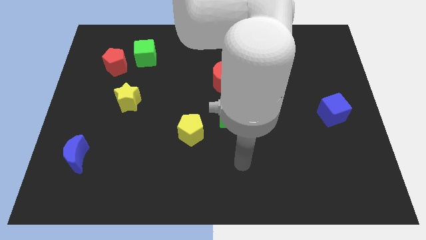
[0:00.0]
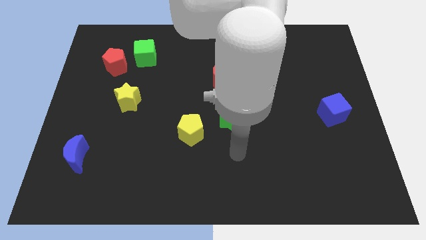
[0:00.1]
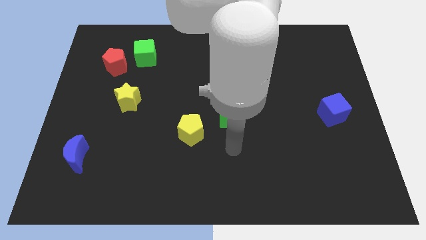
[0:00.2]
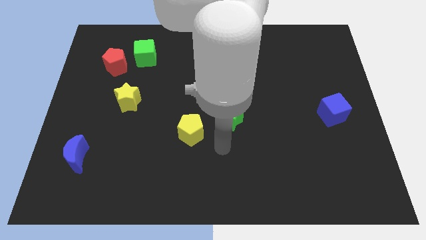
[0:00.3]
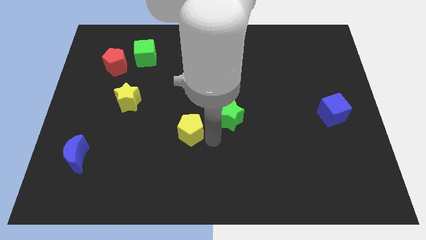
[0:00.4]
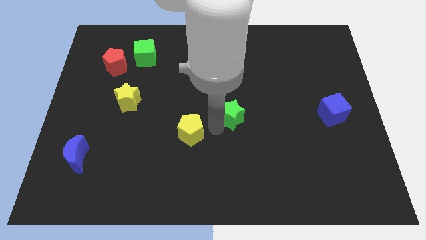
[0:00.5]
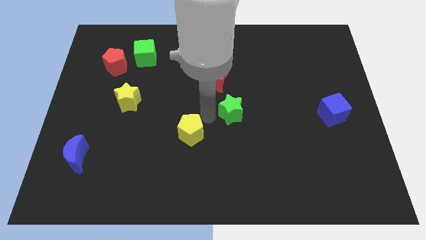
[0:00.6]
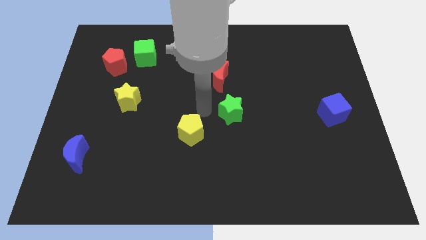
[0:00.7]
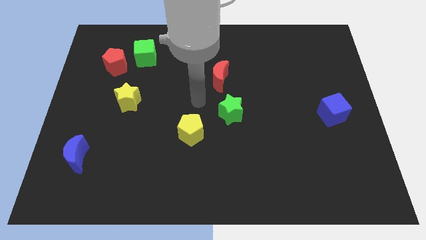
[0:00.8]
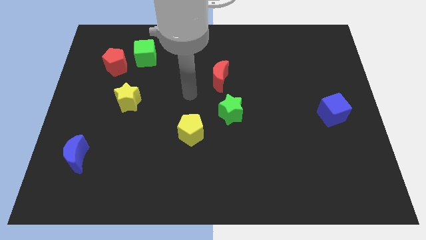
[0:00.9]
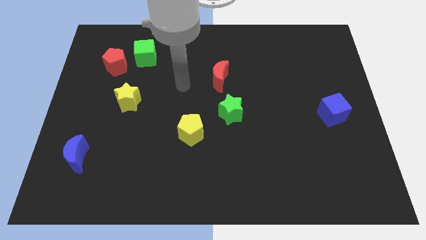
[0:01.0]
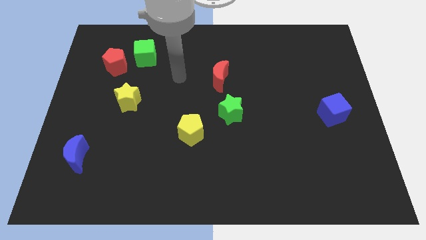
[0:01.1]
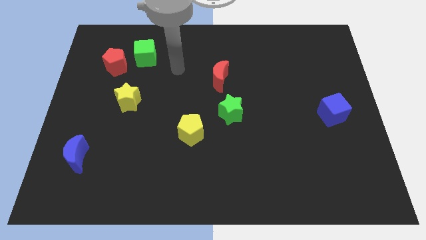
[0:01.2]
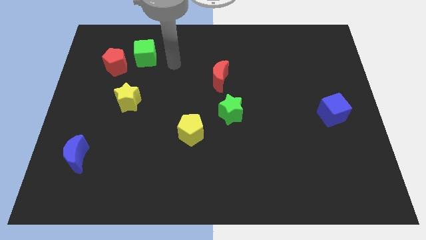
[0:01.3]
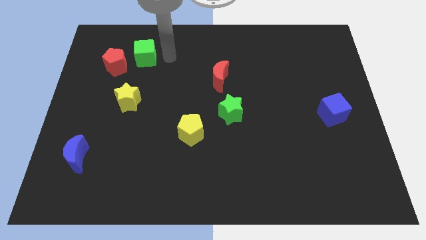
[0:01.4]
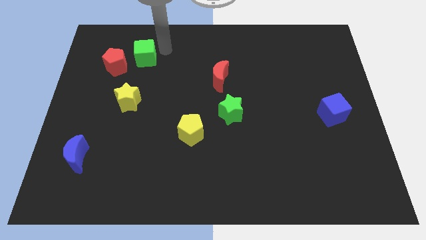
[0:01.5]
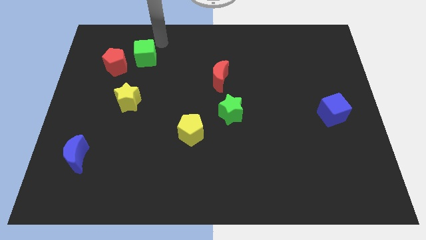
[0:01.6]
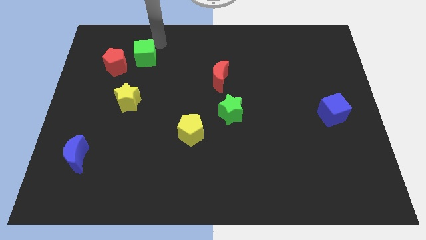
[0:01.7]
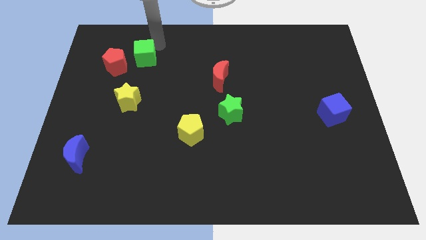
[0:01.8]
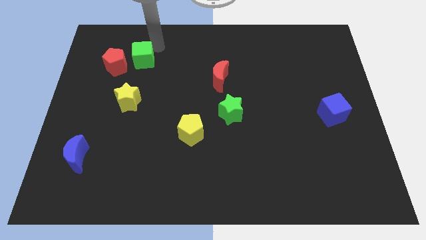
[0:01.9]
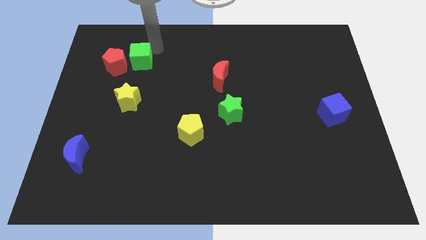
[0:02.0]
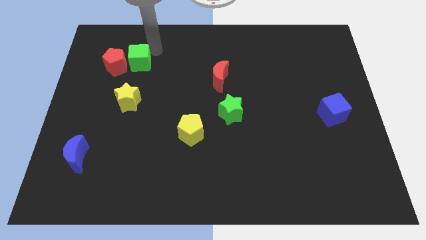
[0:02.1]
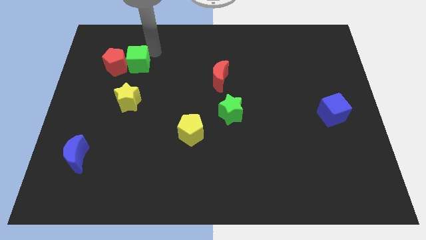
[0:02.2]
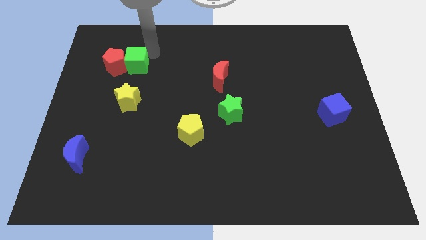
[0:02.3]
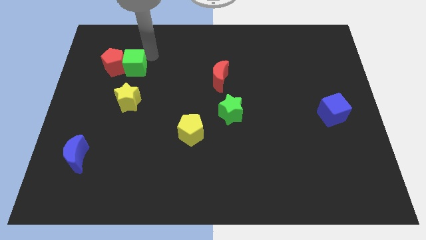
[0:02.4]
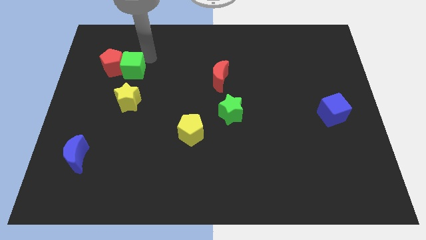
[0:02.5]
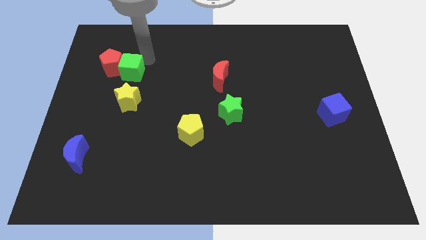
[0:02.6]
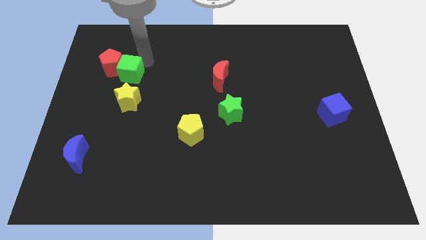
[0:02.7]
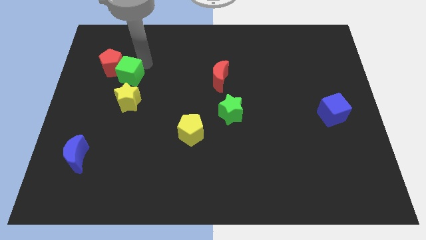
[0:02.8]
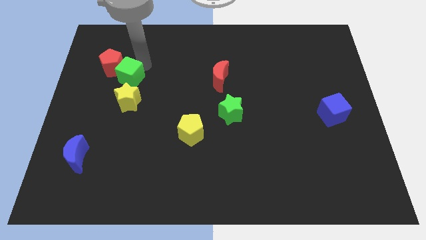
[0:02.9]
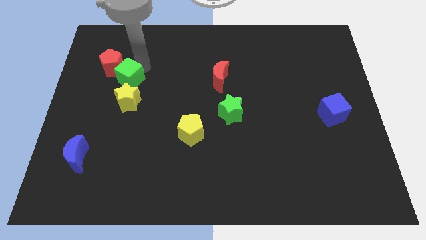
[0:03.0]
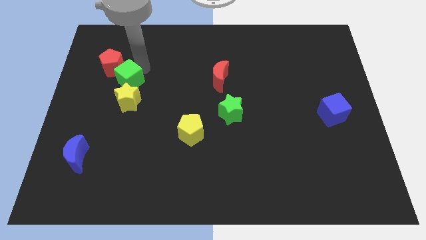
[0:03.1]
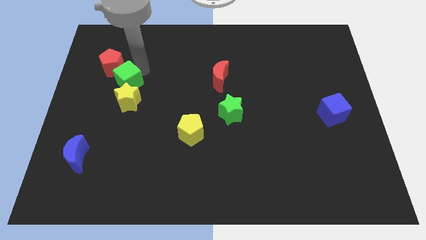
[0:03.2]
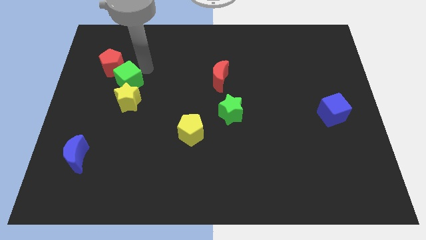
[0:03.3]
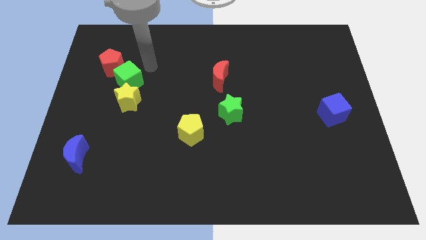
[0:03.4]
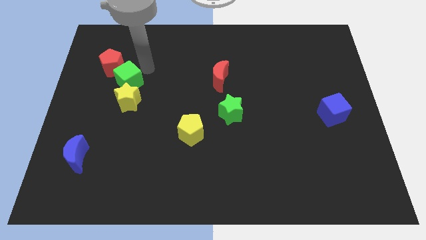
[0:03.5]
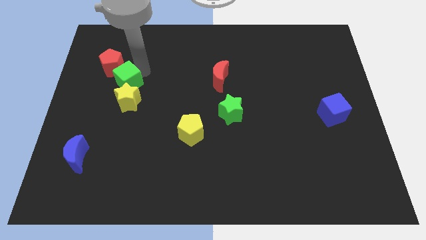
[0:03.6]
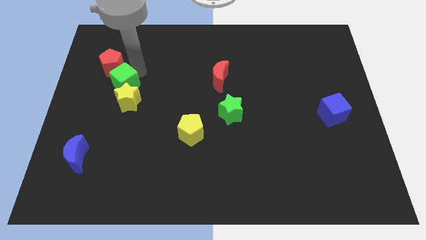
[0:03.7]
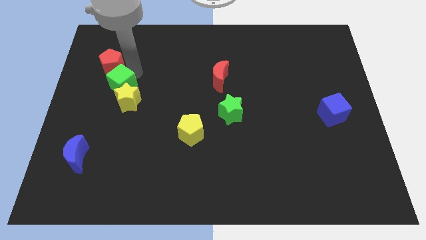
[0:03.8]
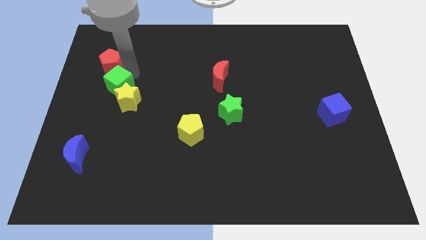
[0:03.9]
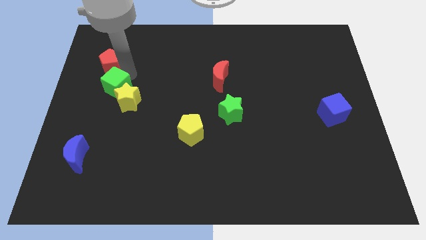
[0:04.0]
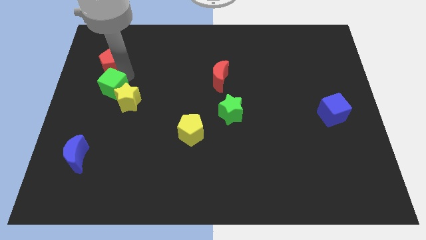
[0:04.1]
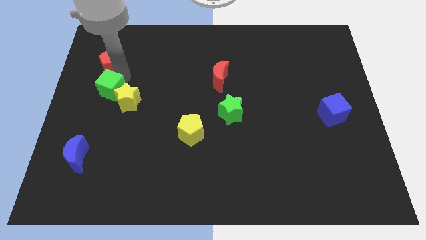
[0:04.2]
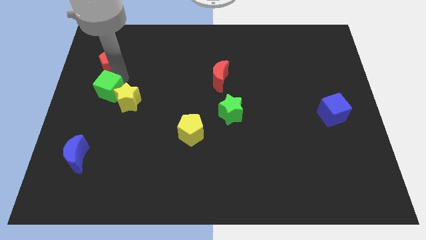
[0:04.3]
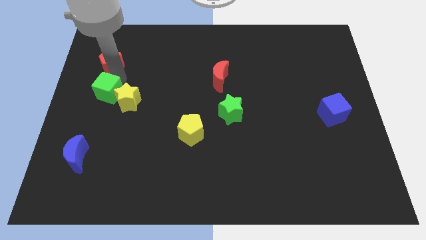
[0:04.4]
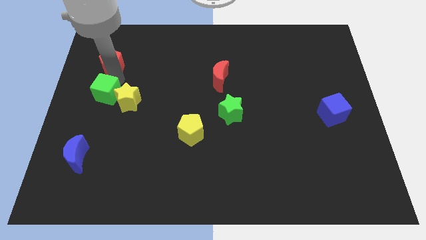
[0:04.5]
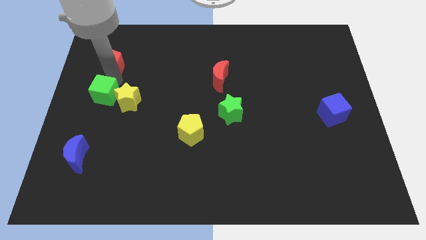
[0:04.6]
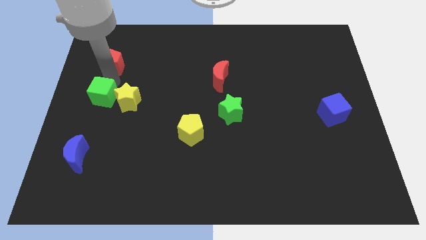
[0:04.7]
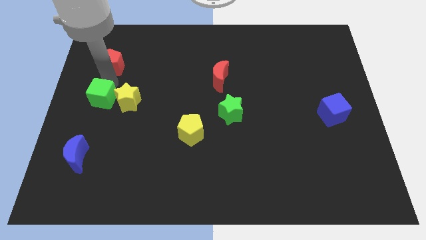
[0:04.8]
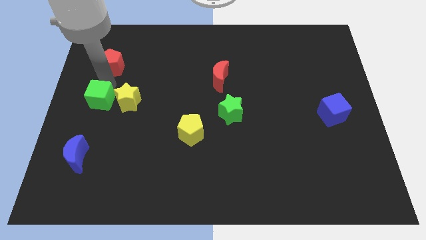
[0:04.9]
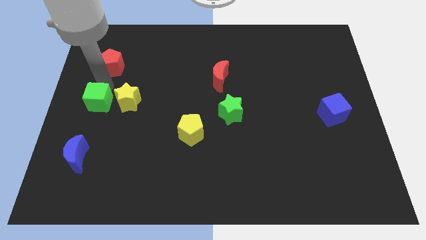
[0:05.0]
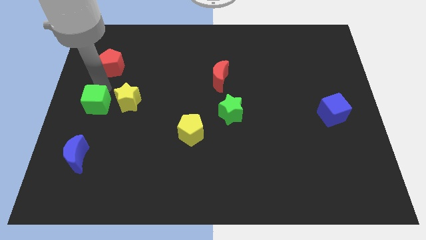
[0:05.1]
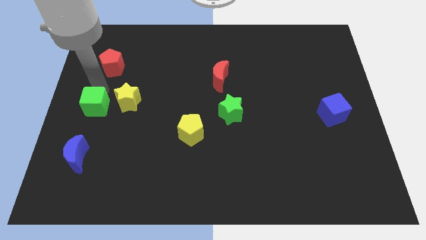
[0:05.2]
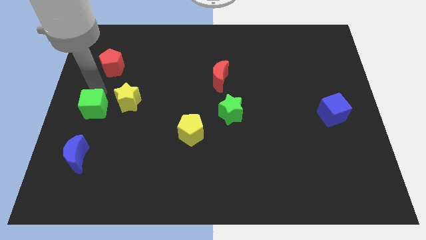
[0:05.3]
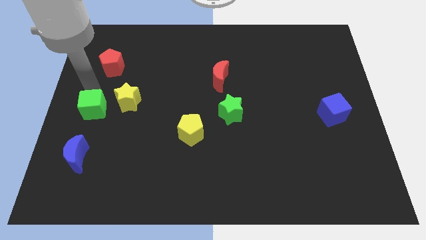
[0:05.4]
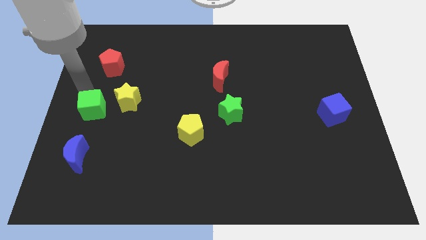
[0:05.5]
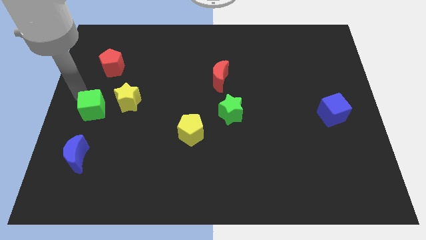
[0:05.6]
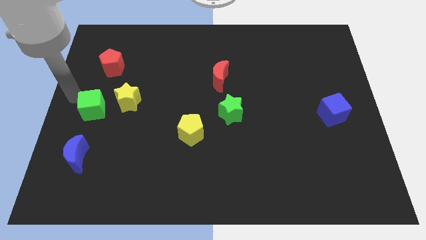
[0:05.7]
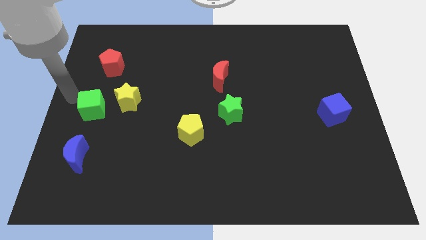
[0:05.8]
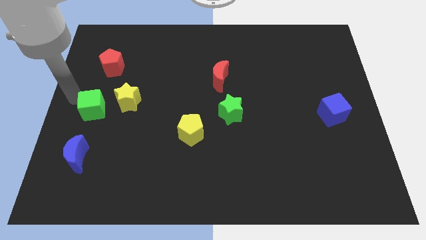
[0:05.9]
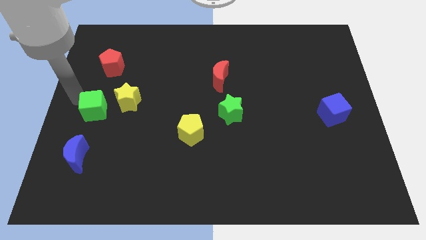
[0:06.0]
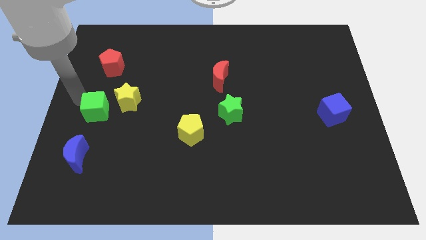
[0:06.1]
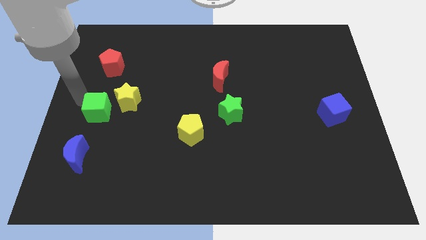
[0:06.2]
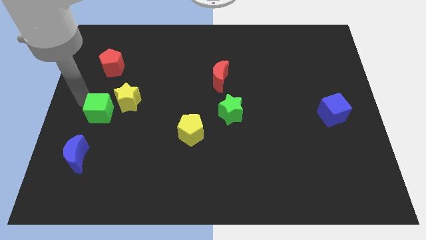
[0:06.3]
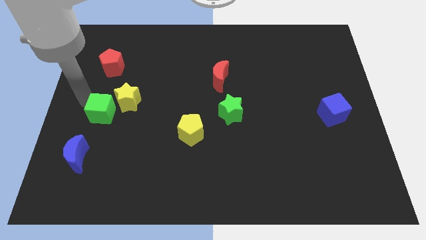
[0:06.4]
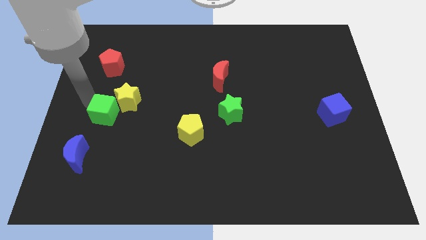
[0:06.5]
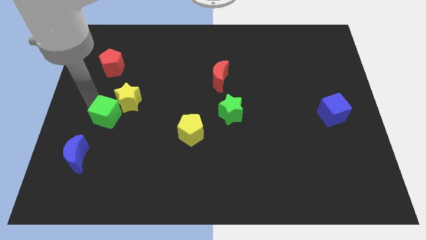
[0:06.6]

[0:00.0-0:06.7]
put the green cube to the bottom of the yellow star
